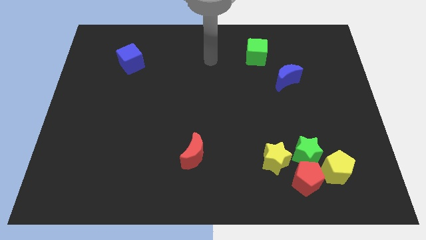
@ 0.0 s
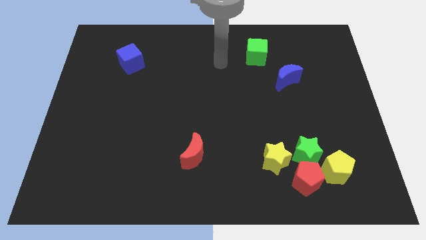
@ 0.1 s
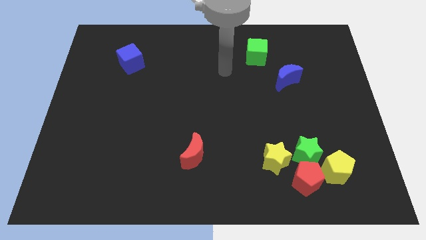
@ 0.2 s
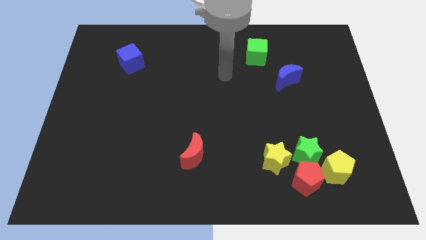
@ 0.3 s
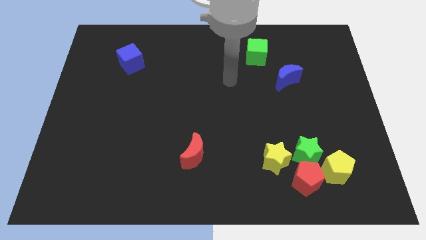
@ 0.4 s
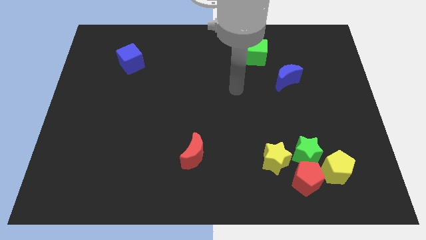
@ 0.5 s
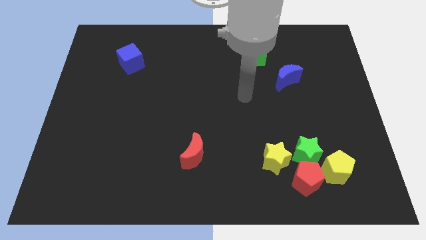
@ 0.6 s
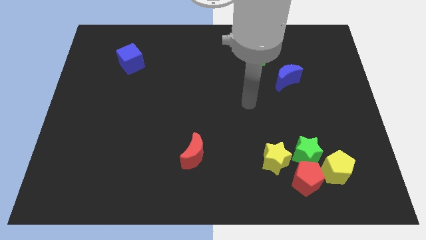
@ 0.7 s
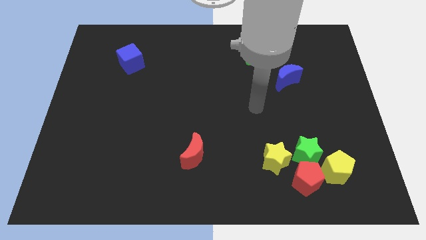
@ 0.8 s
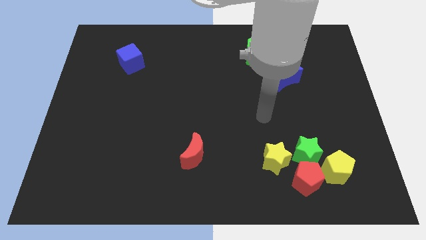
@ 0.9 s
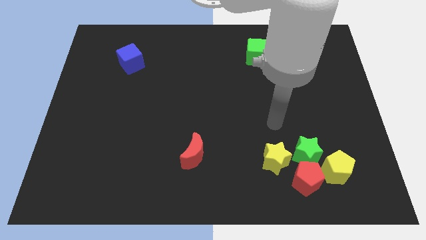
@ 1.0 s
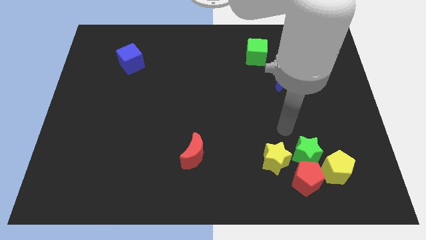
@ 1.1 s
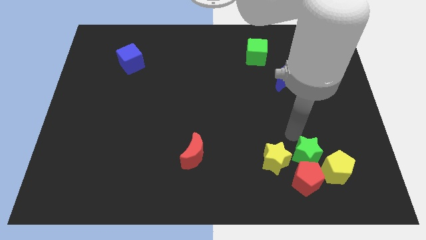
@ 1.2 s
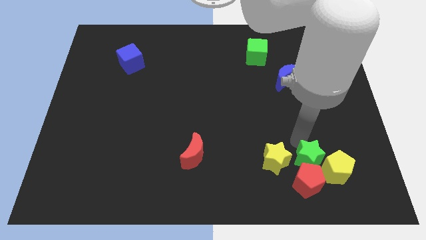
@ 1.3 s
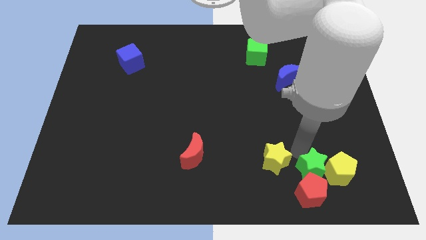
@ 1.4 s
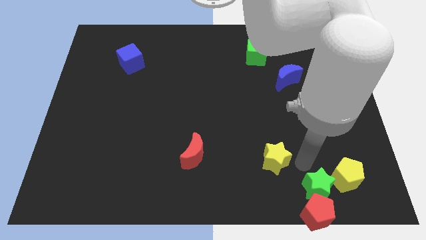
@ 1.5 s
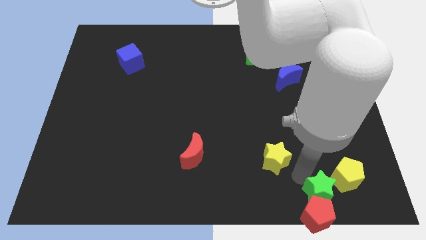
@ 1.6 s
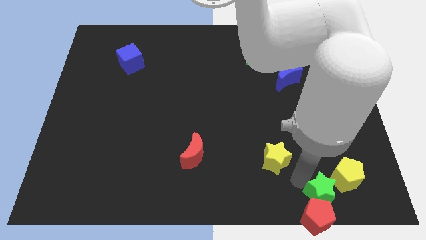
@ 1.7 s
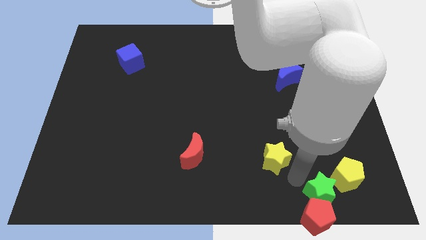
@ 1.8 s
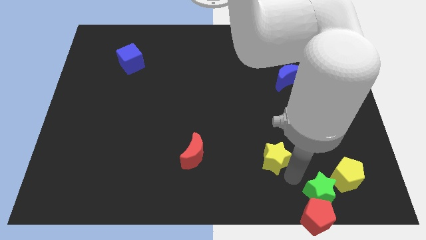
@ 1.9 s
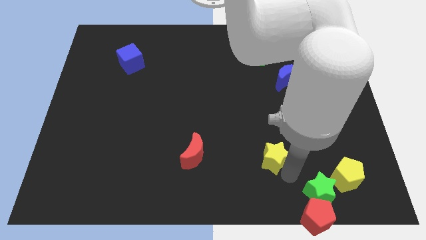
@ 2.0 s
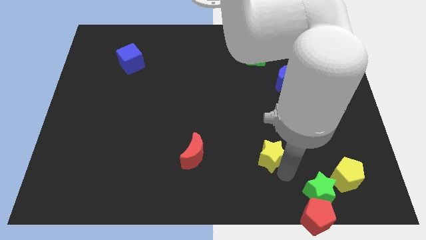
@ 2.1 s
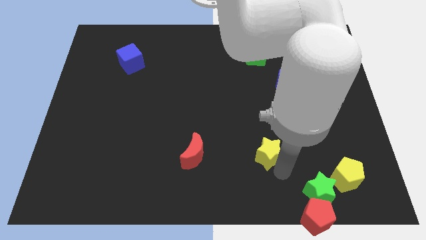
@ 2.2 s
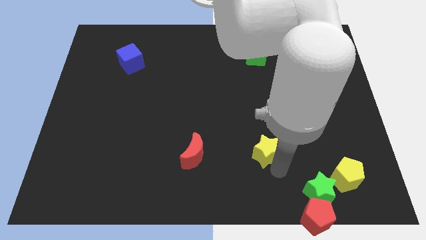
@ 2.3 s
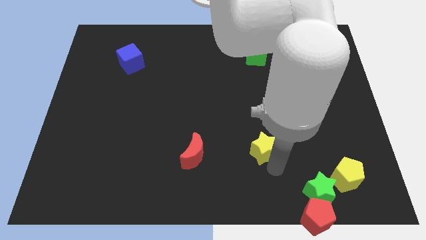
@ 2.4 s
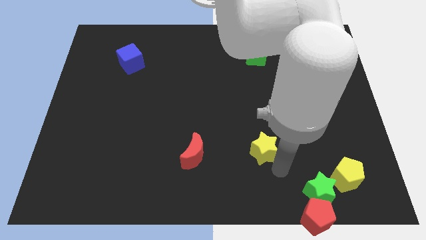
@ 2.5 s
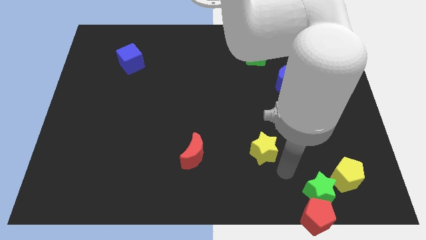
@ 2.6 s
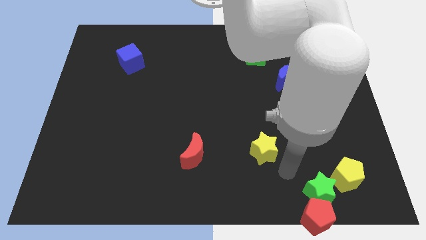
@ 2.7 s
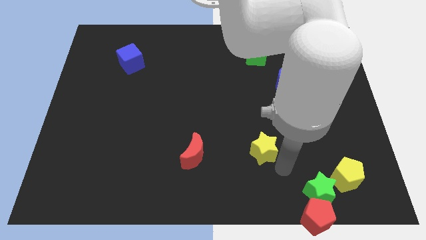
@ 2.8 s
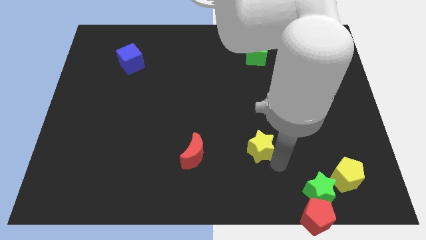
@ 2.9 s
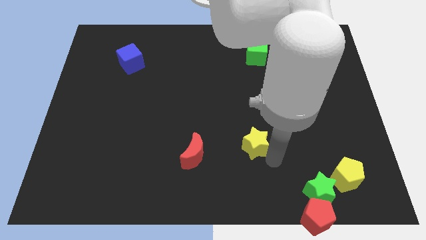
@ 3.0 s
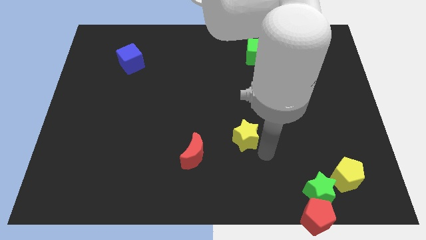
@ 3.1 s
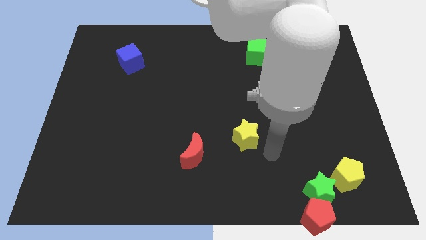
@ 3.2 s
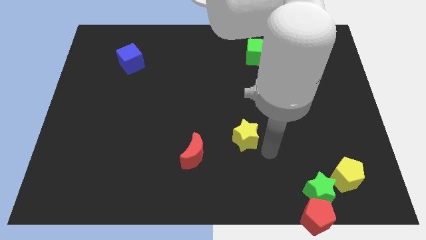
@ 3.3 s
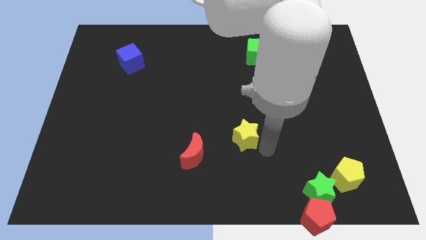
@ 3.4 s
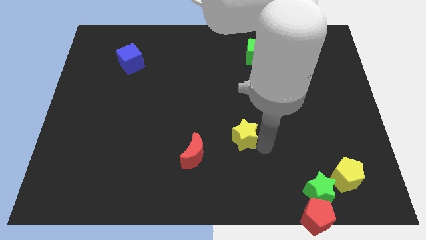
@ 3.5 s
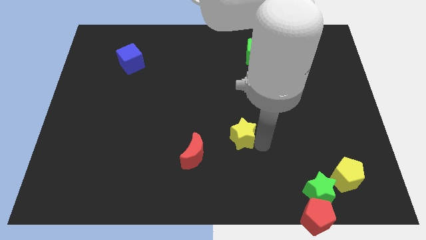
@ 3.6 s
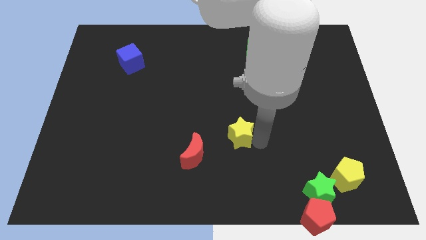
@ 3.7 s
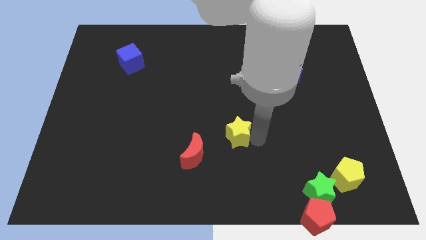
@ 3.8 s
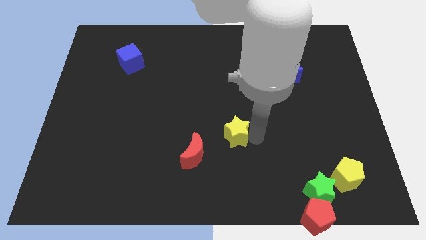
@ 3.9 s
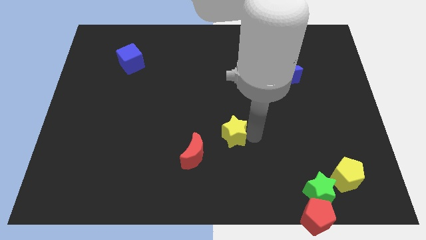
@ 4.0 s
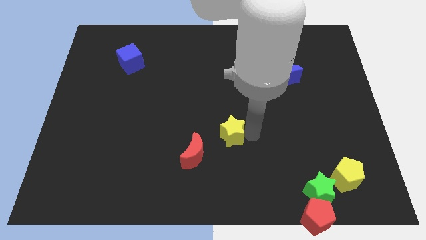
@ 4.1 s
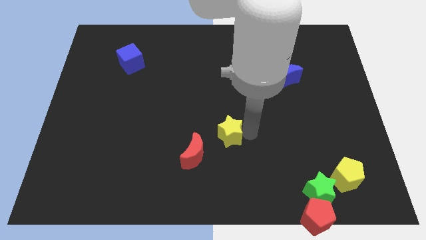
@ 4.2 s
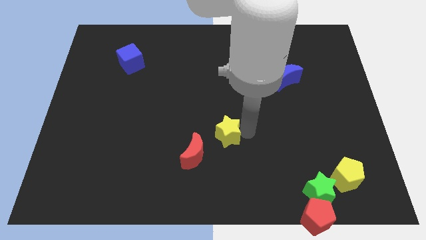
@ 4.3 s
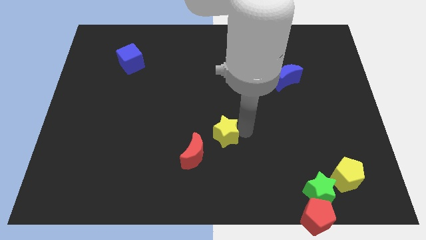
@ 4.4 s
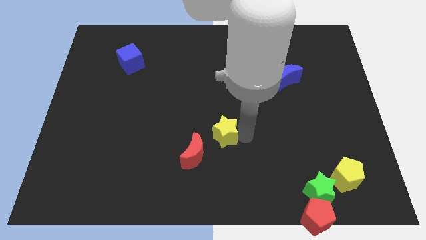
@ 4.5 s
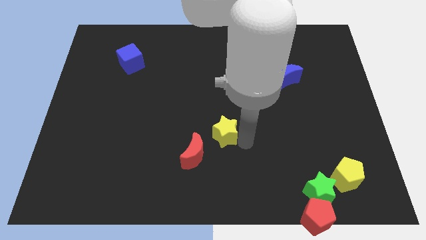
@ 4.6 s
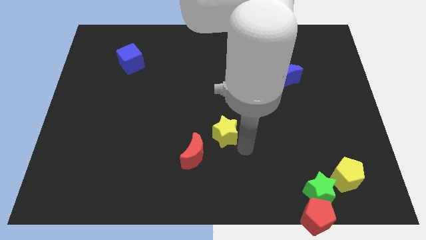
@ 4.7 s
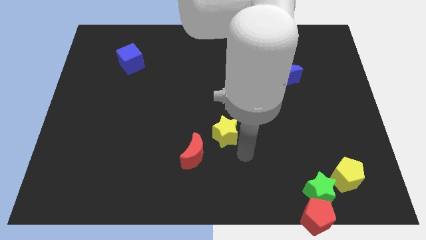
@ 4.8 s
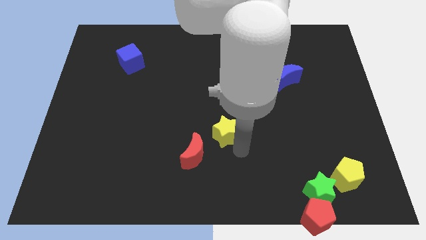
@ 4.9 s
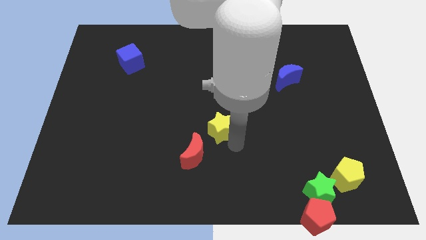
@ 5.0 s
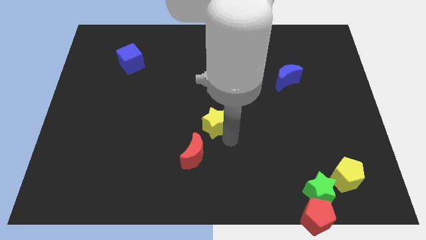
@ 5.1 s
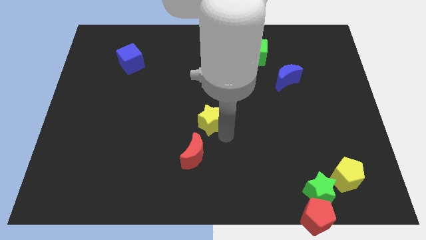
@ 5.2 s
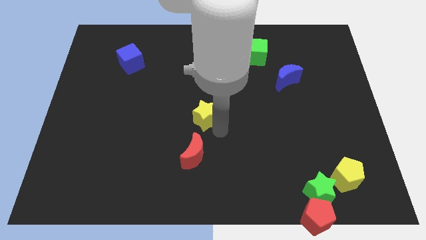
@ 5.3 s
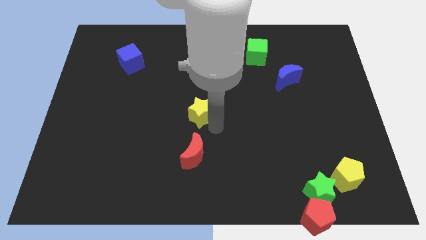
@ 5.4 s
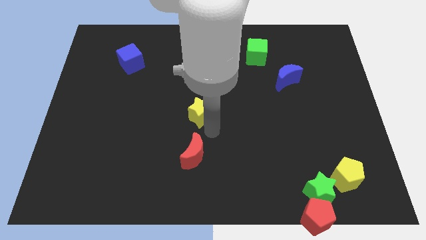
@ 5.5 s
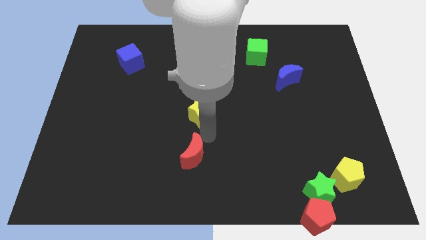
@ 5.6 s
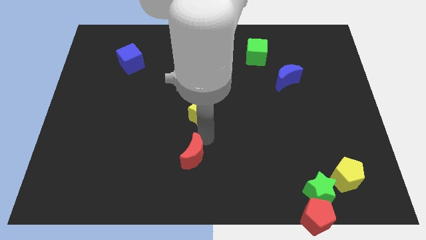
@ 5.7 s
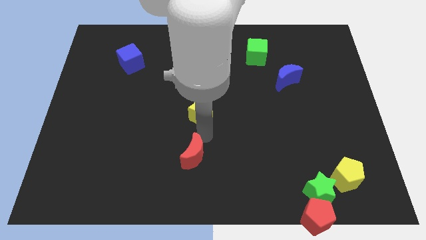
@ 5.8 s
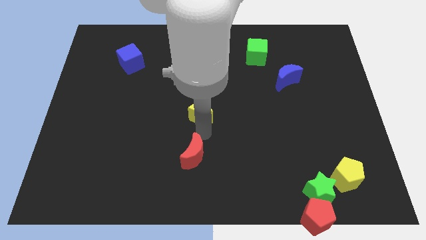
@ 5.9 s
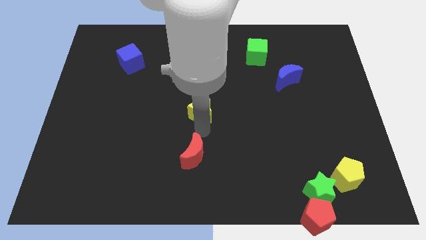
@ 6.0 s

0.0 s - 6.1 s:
push the yellow star up and then left

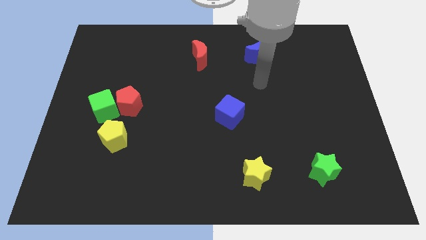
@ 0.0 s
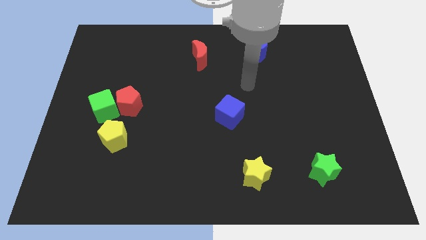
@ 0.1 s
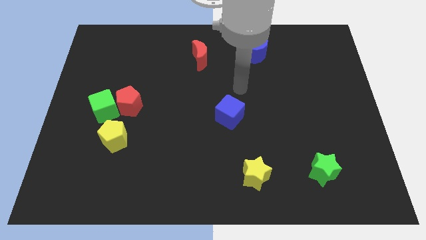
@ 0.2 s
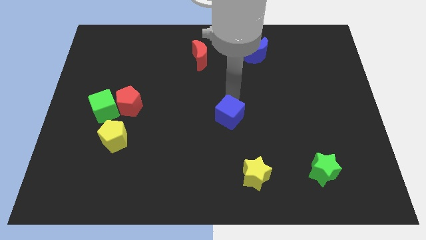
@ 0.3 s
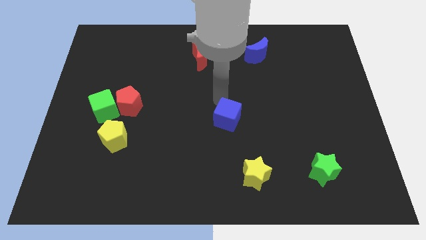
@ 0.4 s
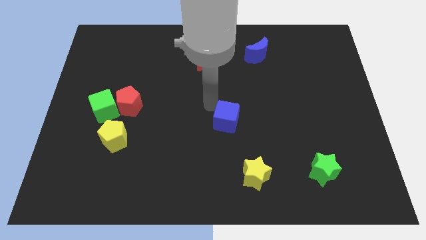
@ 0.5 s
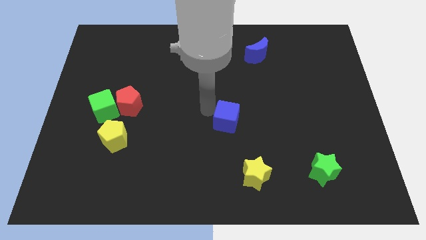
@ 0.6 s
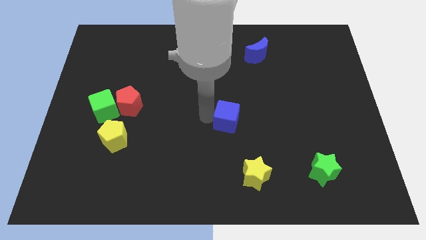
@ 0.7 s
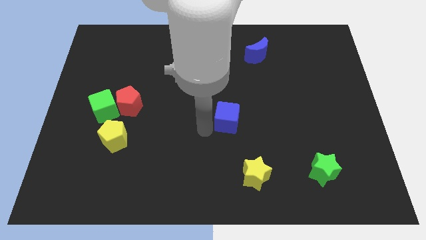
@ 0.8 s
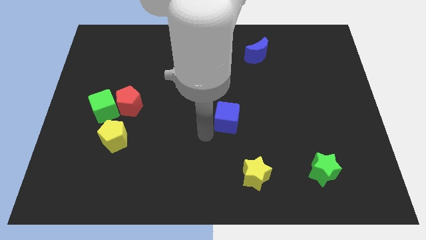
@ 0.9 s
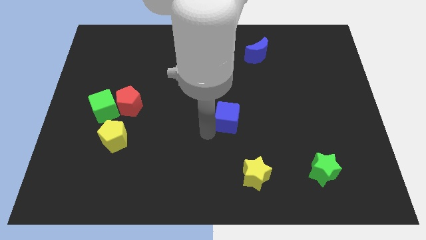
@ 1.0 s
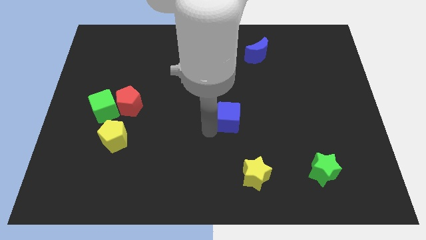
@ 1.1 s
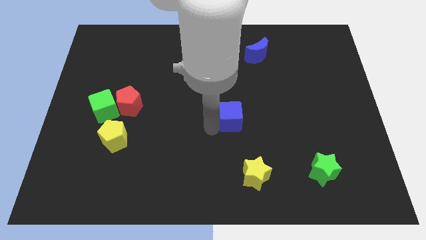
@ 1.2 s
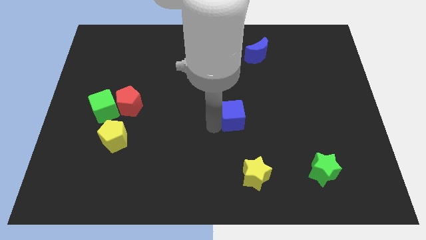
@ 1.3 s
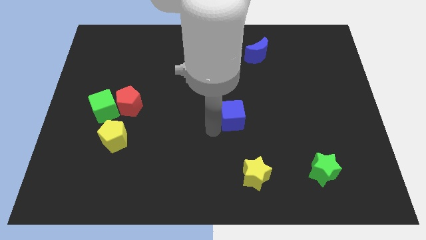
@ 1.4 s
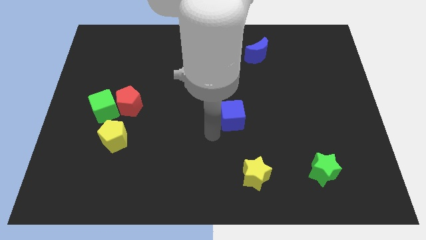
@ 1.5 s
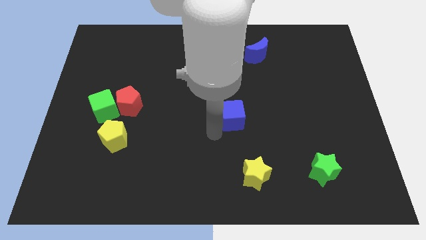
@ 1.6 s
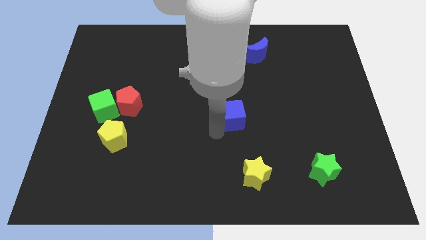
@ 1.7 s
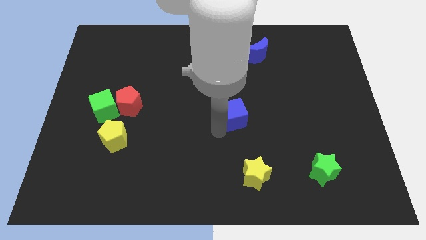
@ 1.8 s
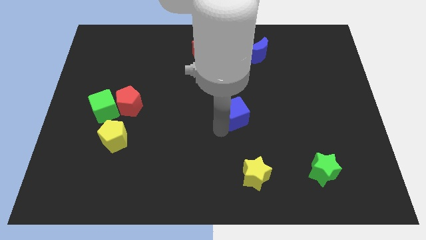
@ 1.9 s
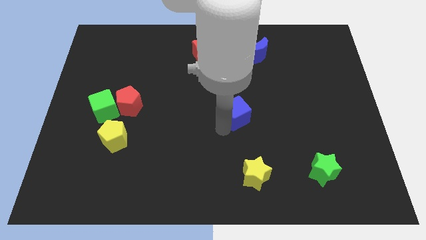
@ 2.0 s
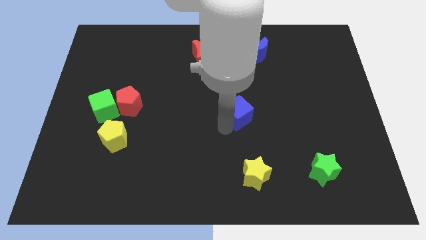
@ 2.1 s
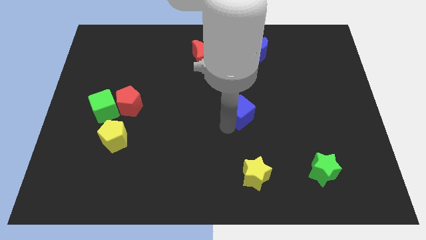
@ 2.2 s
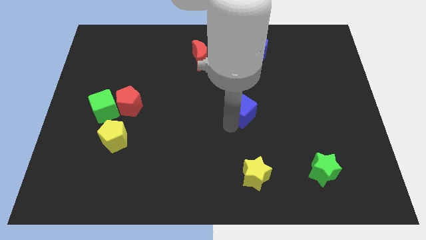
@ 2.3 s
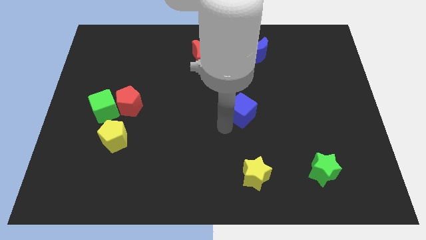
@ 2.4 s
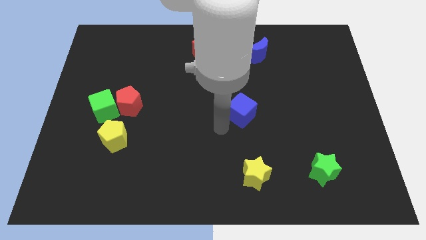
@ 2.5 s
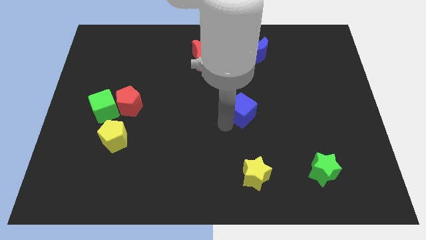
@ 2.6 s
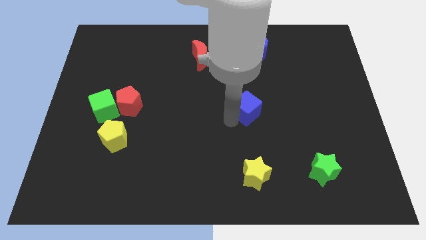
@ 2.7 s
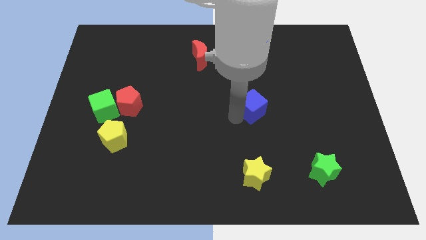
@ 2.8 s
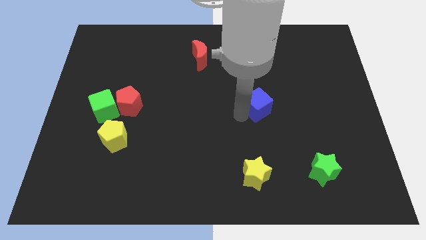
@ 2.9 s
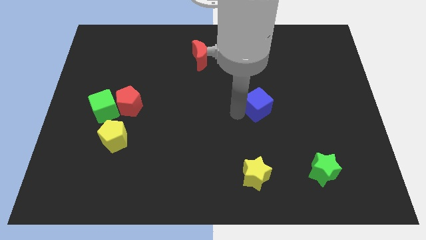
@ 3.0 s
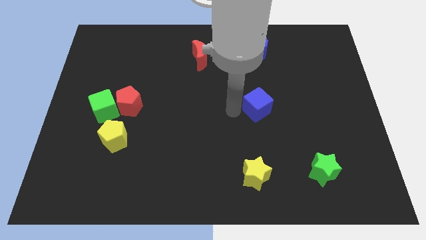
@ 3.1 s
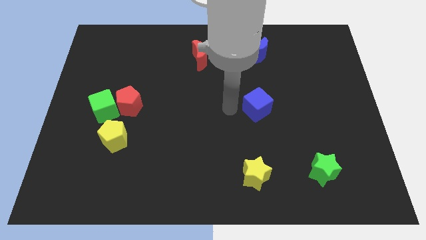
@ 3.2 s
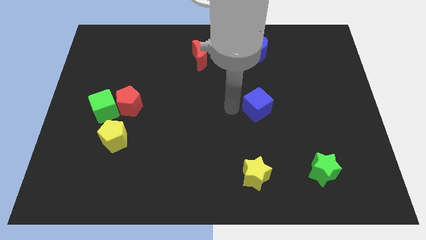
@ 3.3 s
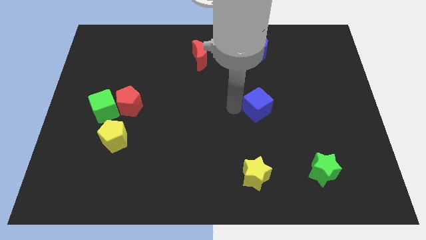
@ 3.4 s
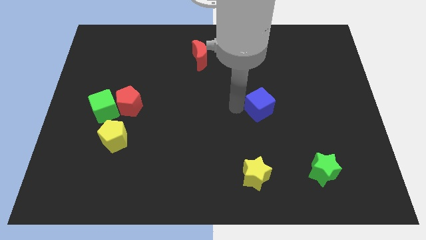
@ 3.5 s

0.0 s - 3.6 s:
slightly push the blue cube to the right
